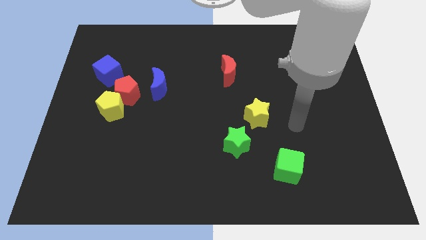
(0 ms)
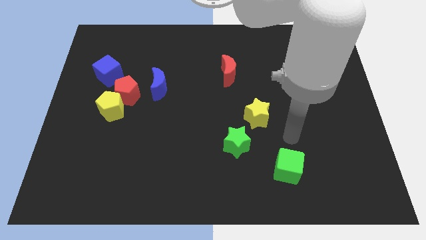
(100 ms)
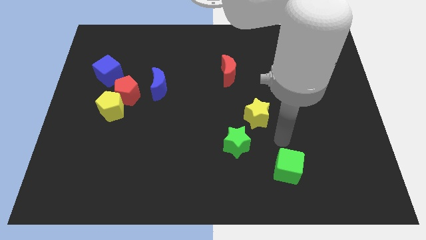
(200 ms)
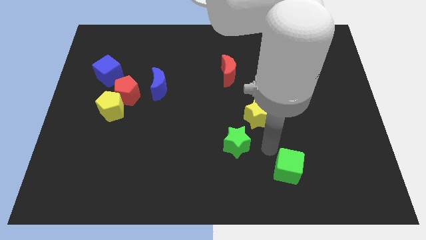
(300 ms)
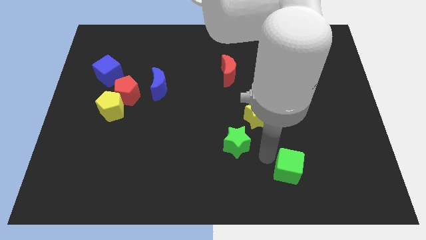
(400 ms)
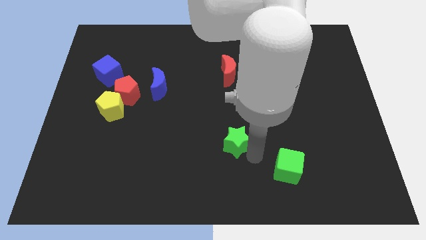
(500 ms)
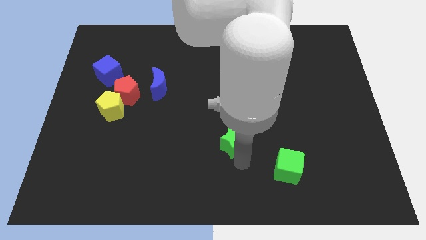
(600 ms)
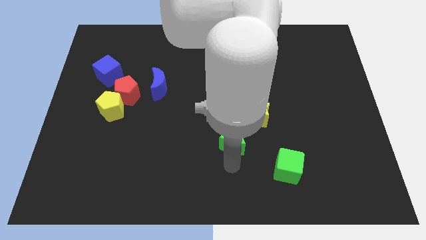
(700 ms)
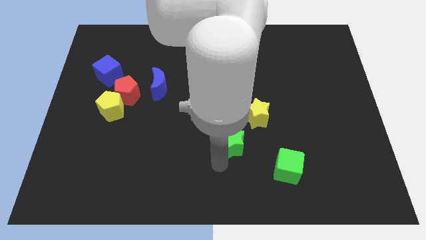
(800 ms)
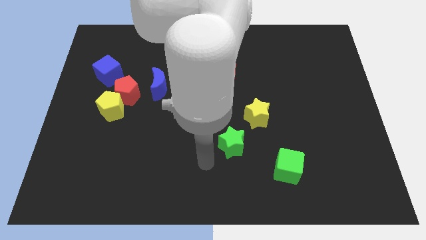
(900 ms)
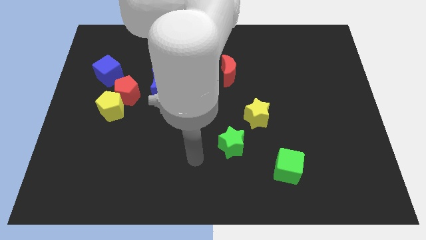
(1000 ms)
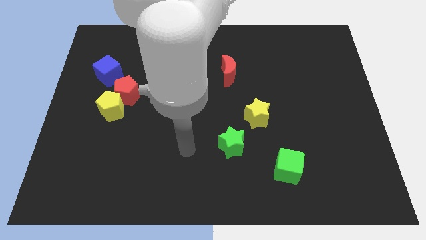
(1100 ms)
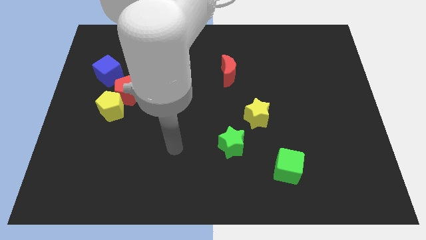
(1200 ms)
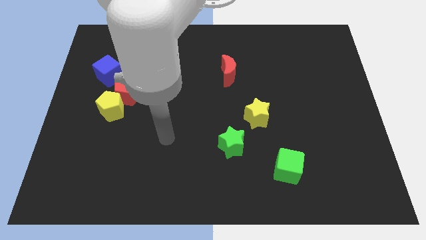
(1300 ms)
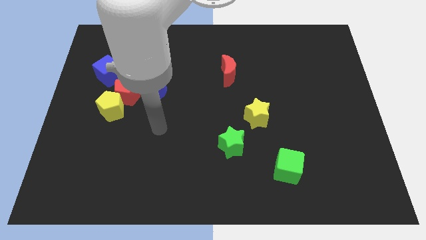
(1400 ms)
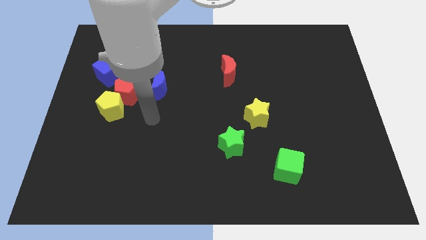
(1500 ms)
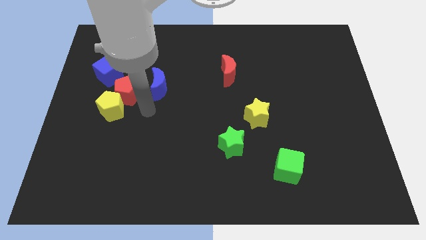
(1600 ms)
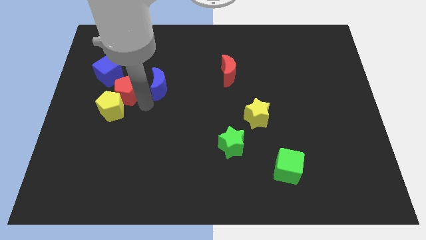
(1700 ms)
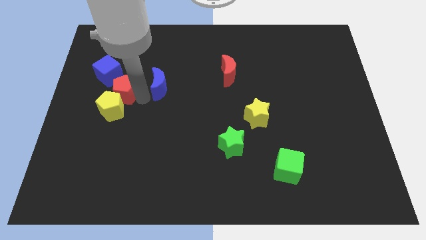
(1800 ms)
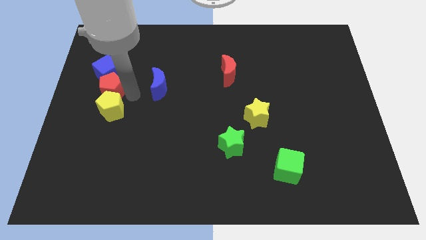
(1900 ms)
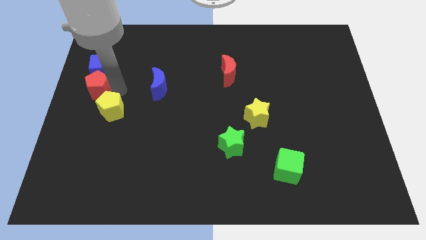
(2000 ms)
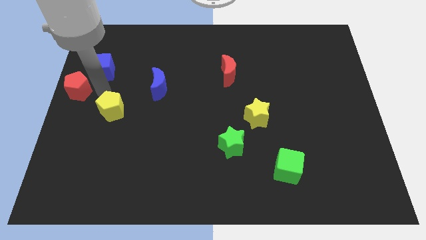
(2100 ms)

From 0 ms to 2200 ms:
separate the yellow pentagon from the red pentagon

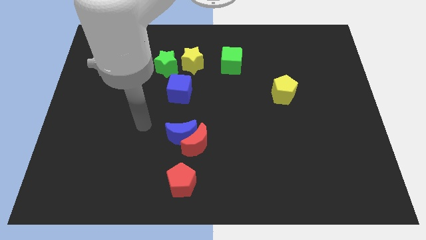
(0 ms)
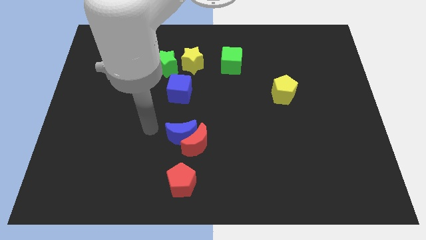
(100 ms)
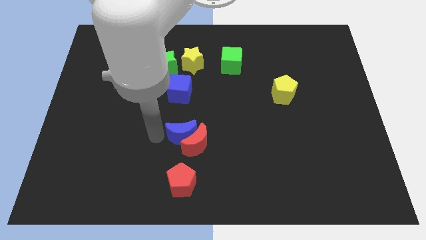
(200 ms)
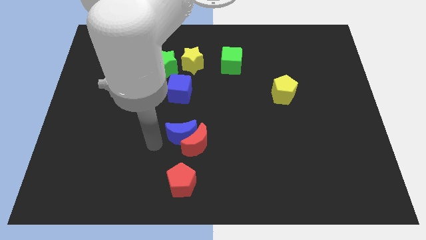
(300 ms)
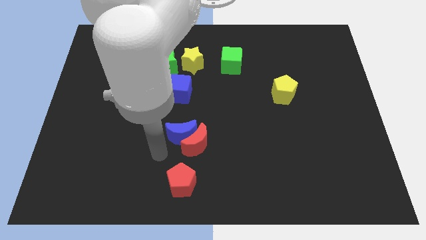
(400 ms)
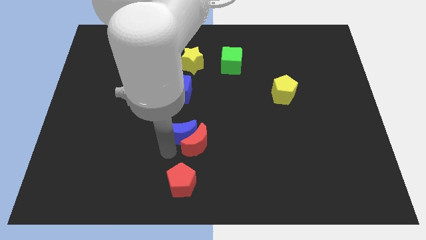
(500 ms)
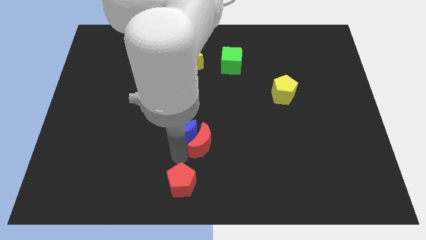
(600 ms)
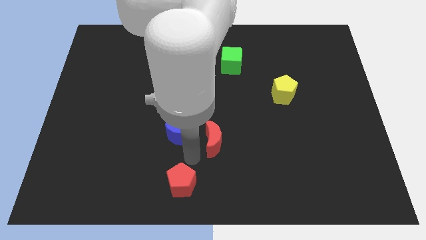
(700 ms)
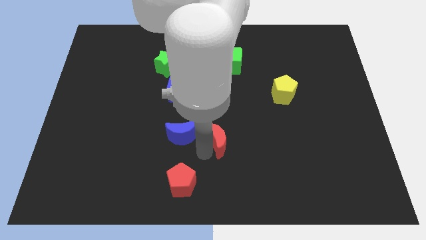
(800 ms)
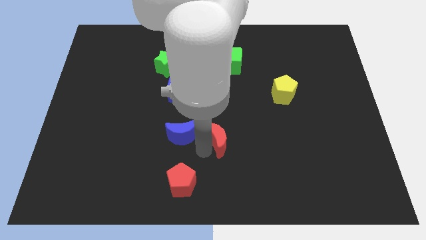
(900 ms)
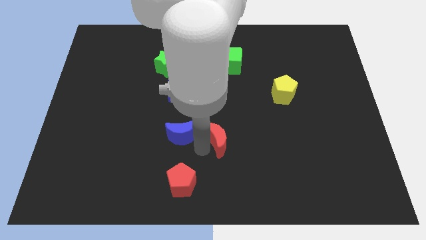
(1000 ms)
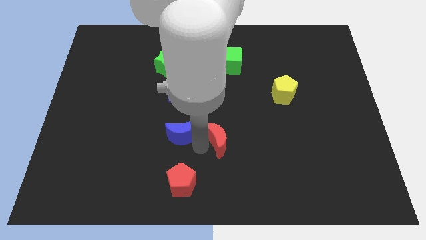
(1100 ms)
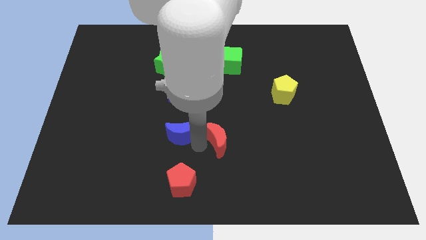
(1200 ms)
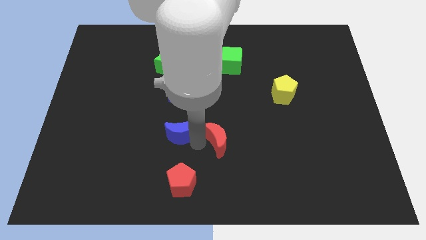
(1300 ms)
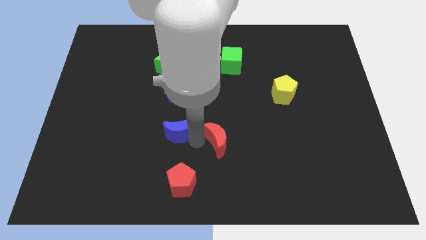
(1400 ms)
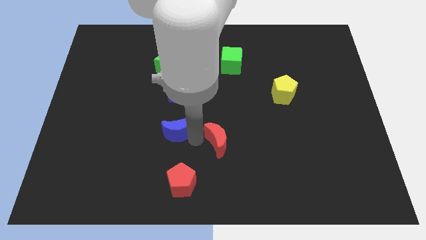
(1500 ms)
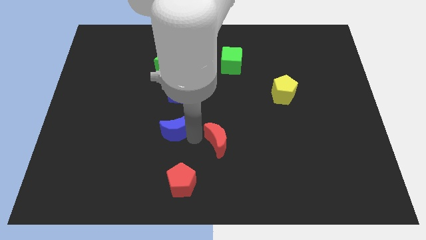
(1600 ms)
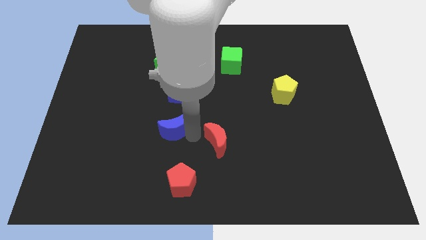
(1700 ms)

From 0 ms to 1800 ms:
pull the blue moon apart from the red moon

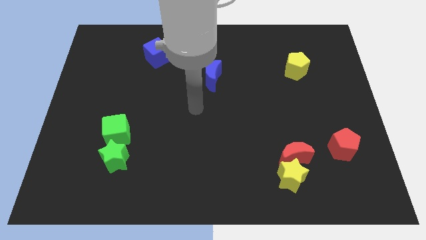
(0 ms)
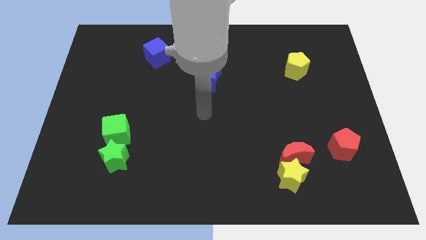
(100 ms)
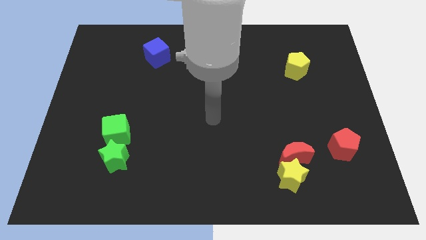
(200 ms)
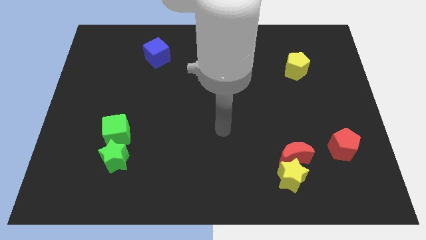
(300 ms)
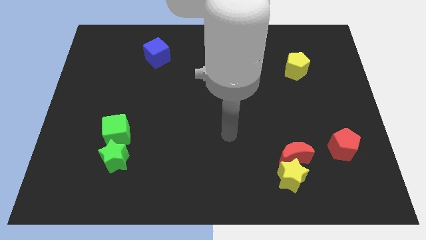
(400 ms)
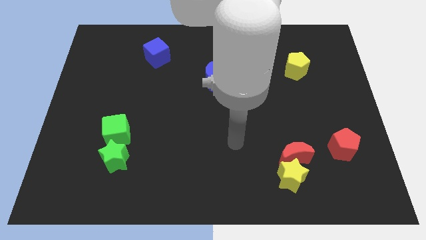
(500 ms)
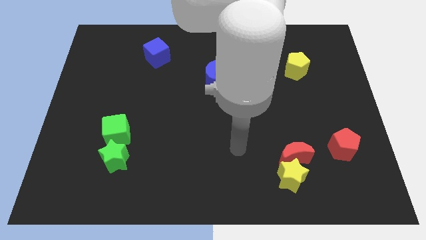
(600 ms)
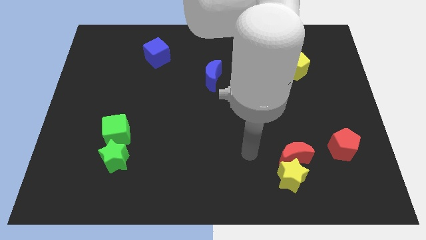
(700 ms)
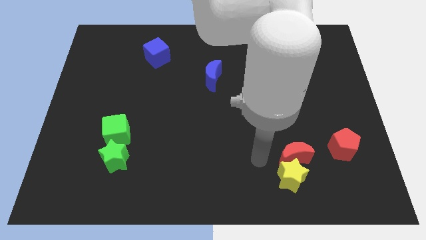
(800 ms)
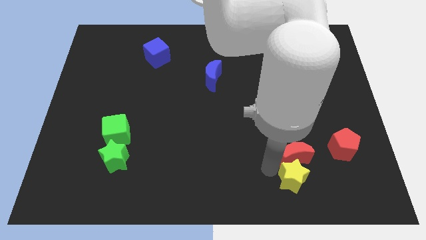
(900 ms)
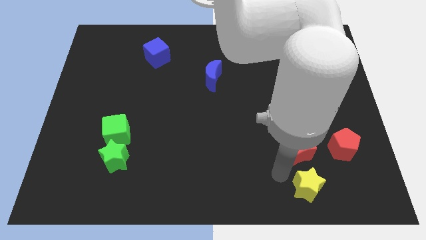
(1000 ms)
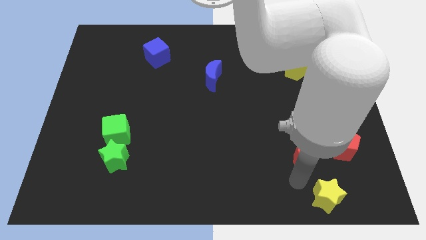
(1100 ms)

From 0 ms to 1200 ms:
move the red moon away from the yellow star

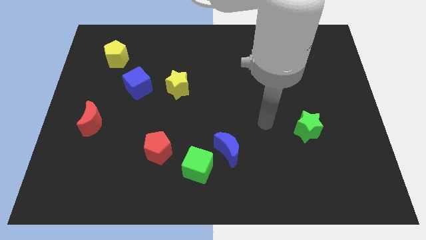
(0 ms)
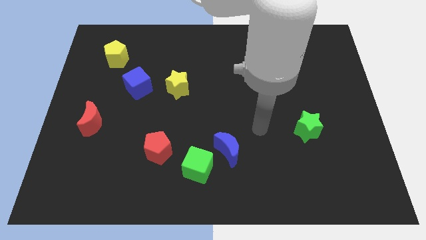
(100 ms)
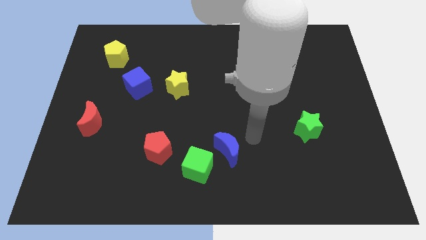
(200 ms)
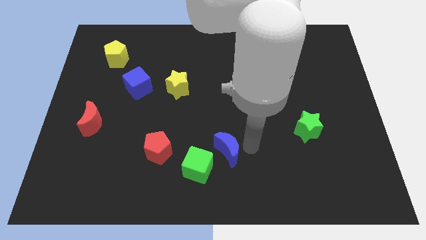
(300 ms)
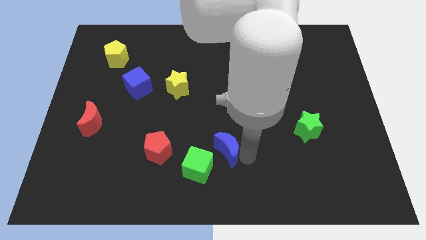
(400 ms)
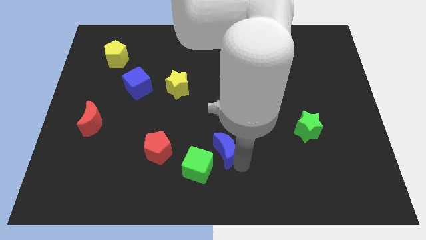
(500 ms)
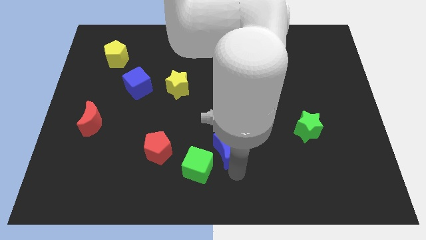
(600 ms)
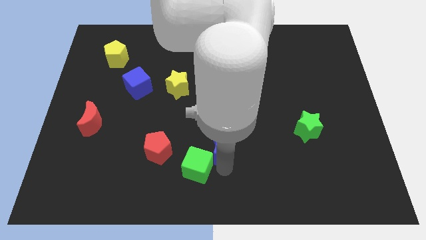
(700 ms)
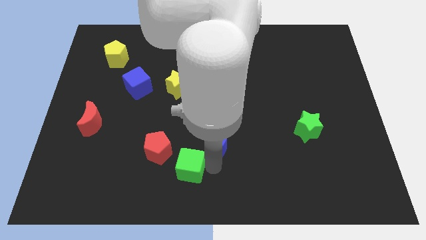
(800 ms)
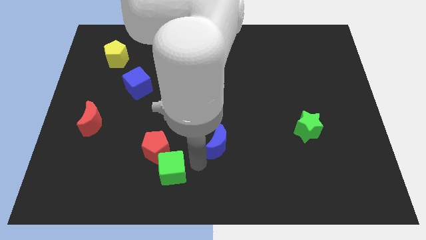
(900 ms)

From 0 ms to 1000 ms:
move the blue moon away from the green cube

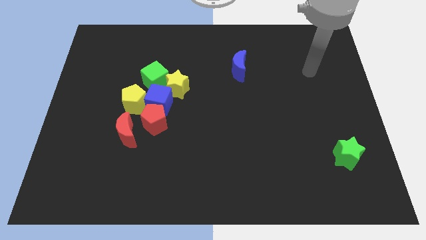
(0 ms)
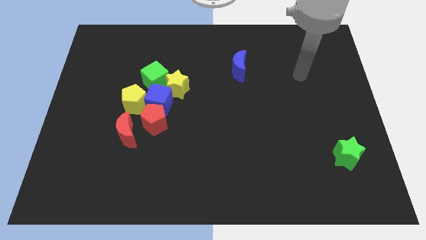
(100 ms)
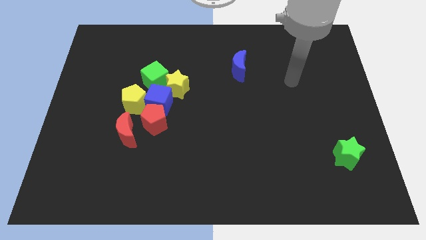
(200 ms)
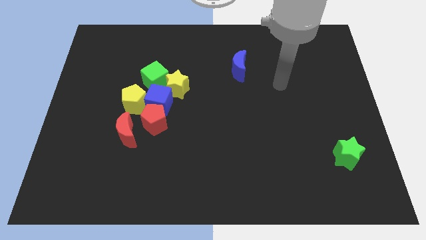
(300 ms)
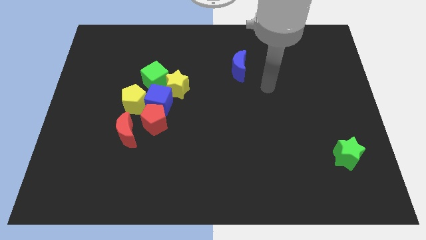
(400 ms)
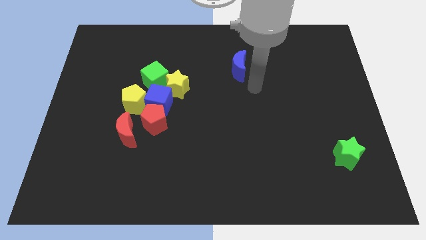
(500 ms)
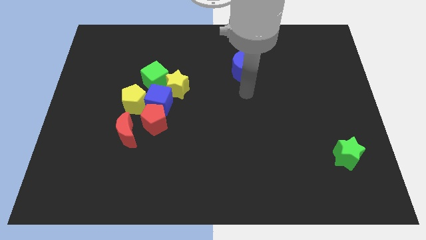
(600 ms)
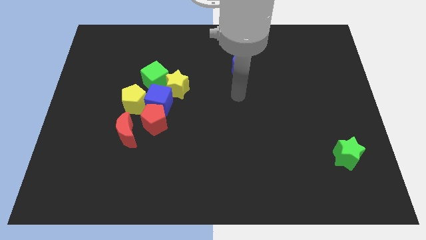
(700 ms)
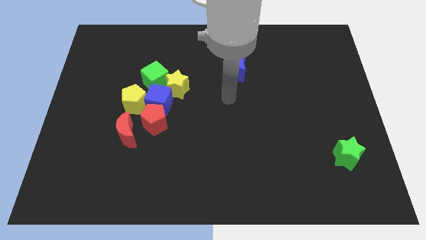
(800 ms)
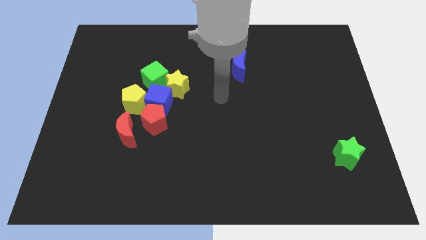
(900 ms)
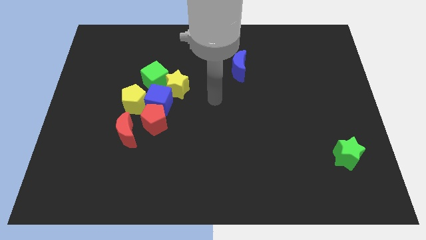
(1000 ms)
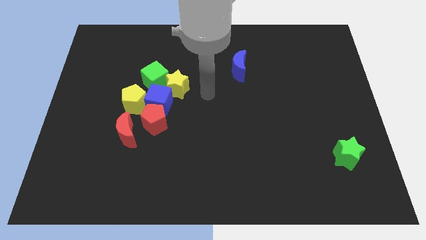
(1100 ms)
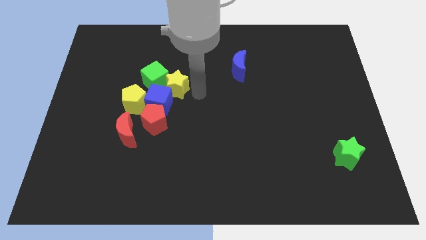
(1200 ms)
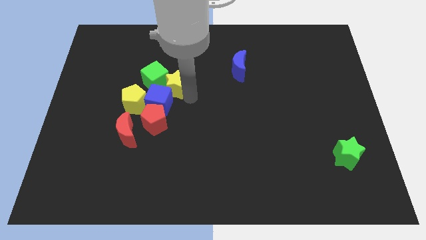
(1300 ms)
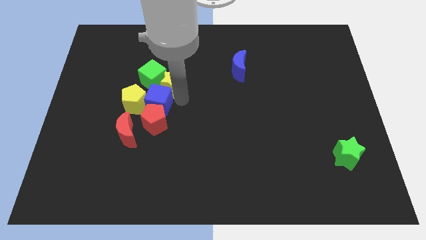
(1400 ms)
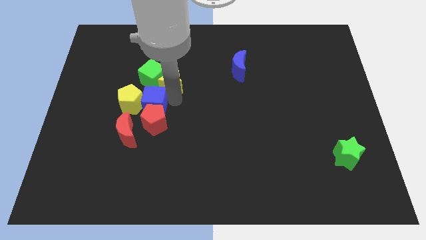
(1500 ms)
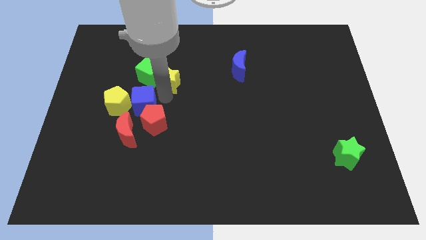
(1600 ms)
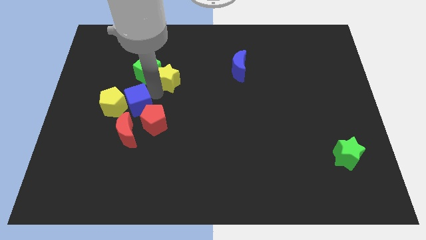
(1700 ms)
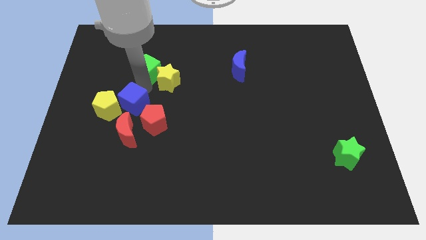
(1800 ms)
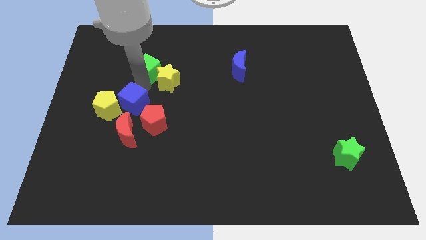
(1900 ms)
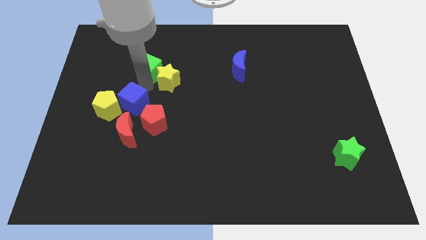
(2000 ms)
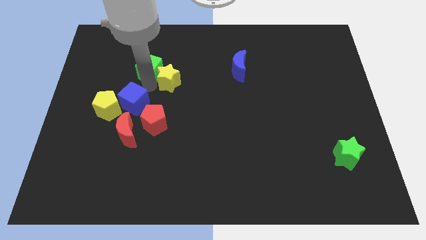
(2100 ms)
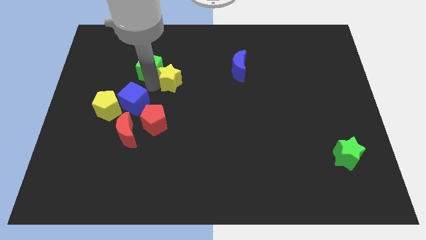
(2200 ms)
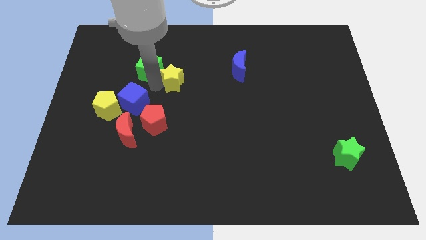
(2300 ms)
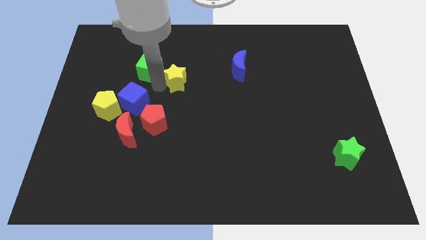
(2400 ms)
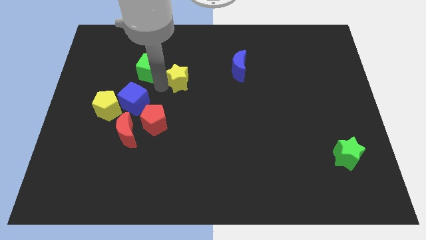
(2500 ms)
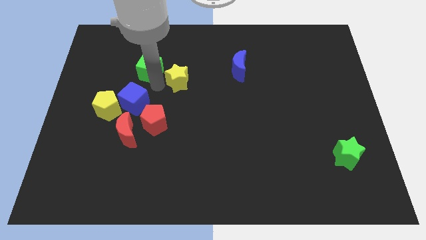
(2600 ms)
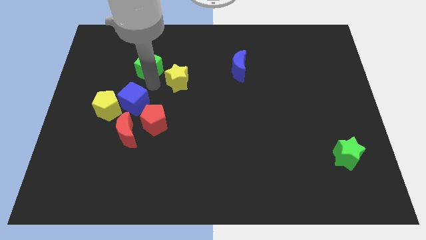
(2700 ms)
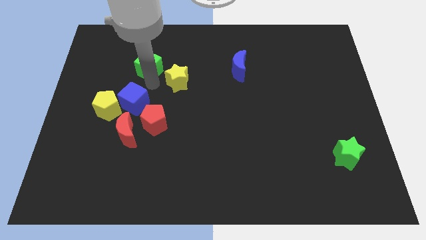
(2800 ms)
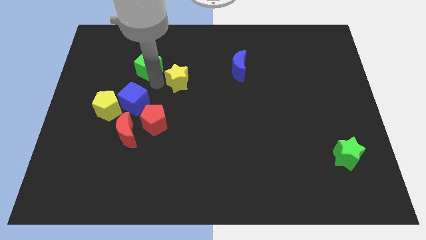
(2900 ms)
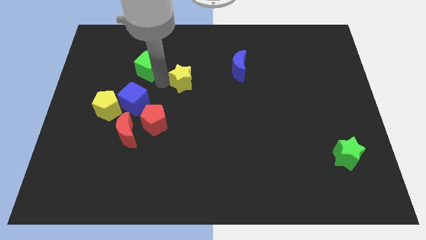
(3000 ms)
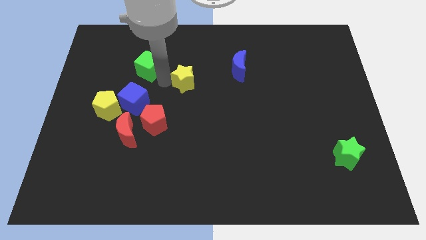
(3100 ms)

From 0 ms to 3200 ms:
move the yellow star away from the green cube and blue cube
